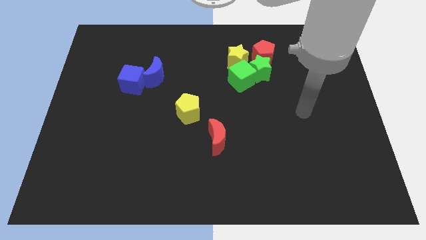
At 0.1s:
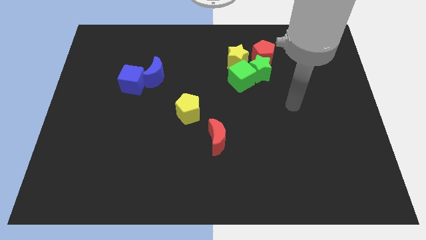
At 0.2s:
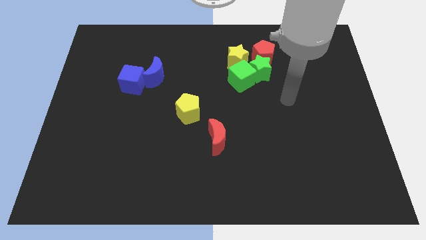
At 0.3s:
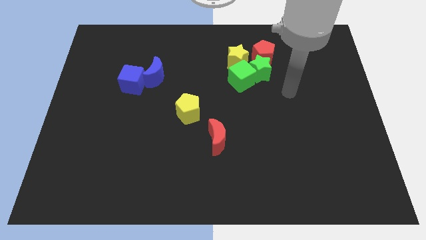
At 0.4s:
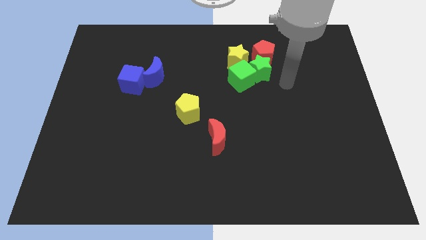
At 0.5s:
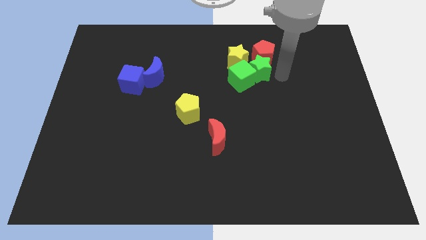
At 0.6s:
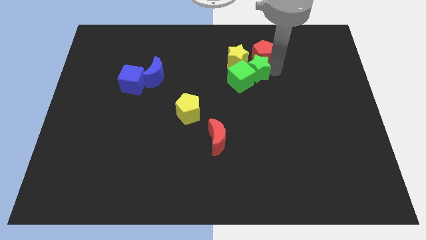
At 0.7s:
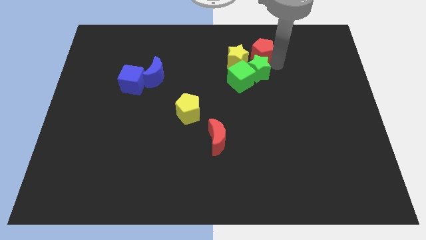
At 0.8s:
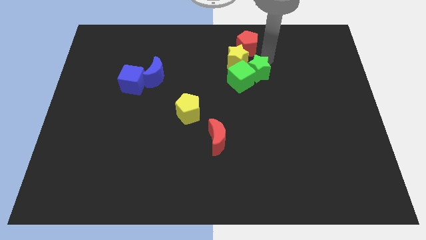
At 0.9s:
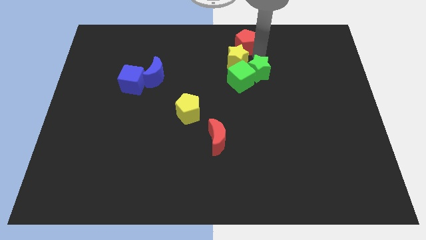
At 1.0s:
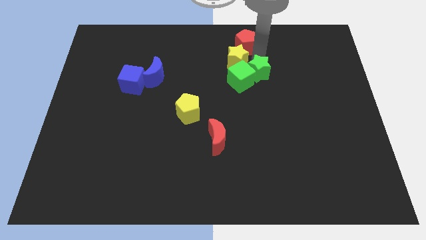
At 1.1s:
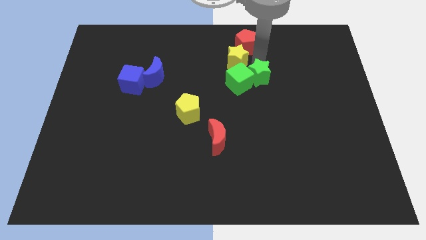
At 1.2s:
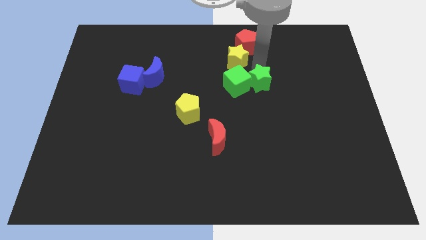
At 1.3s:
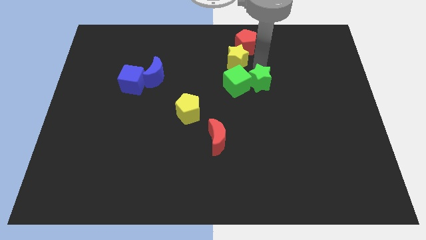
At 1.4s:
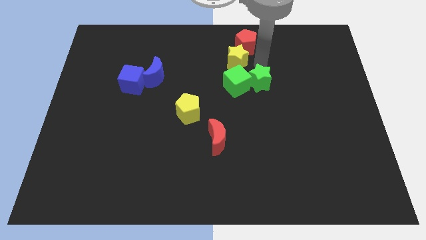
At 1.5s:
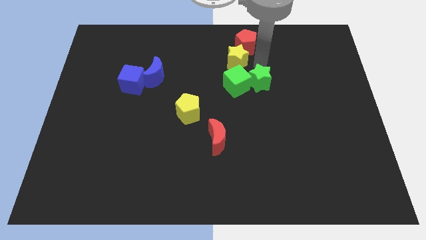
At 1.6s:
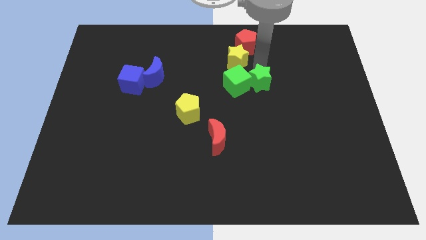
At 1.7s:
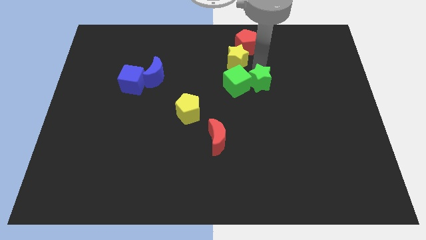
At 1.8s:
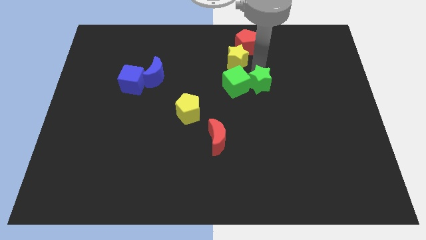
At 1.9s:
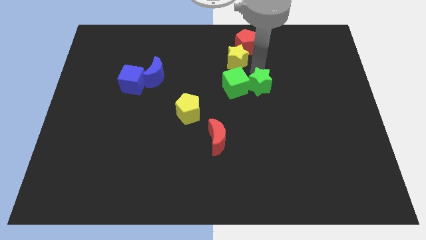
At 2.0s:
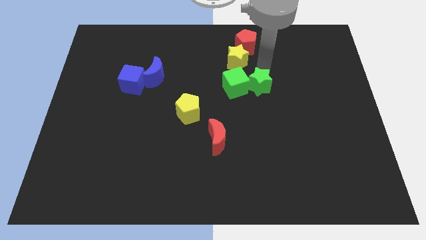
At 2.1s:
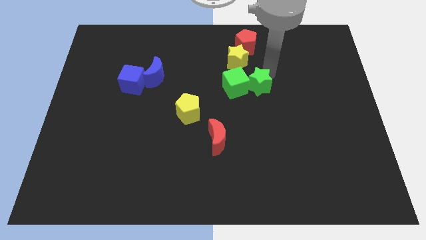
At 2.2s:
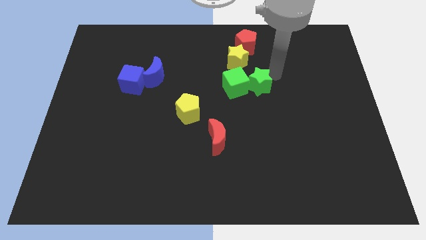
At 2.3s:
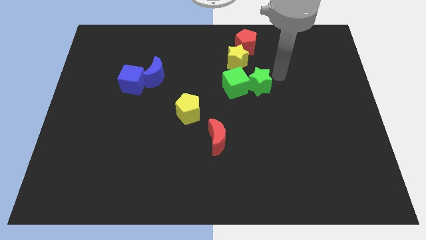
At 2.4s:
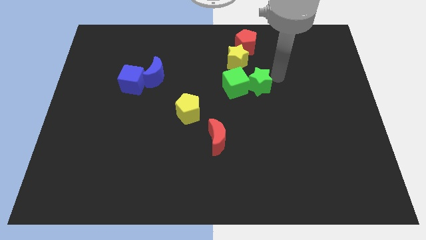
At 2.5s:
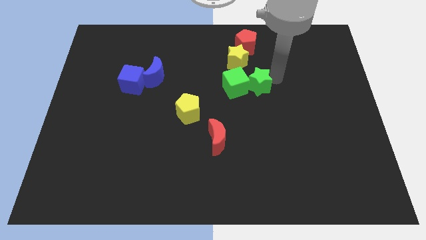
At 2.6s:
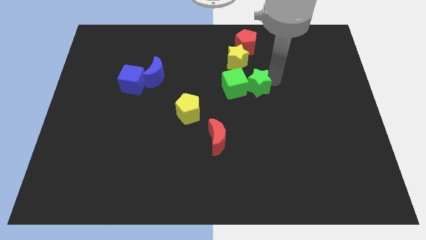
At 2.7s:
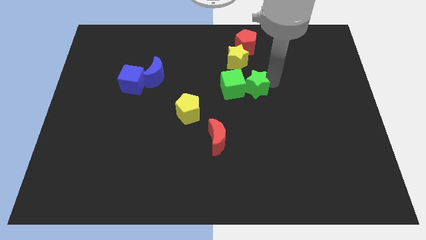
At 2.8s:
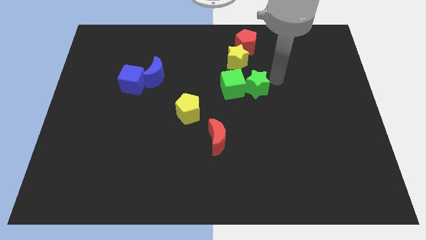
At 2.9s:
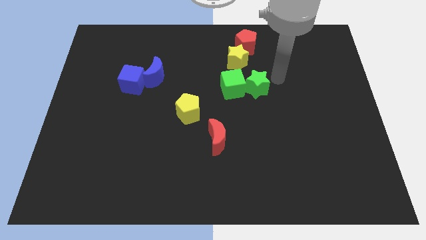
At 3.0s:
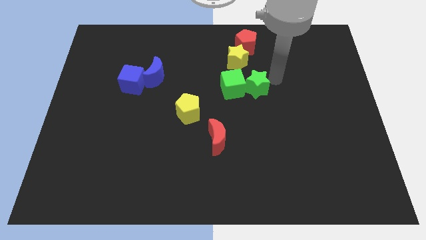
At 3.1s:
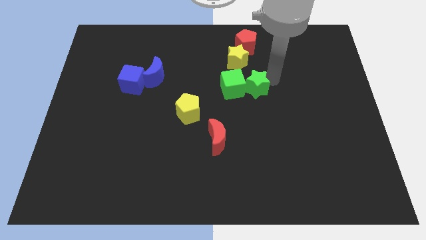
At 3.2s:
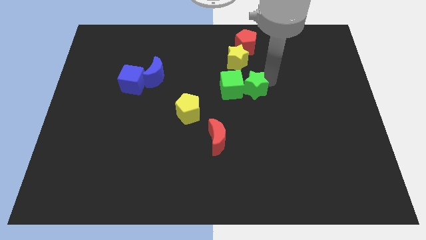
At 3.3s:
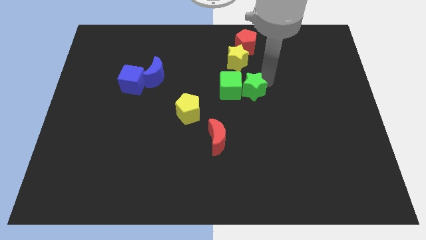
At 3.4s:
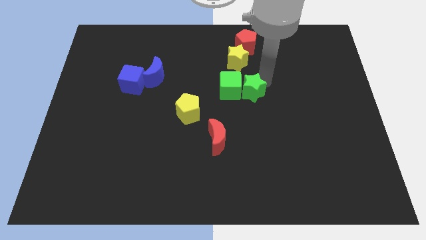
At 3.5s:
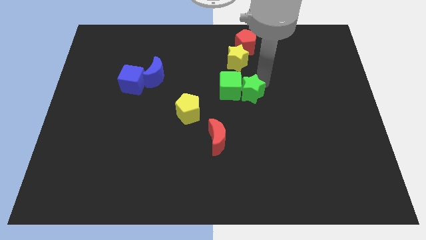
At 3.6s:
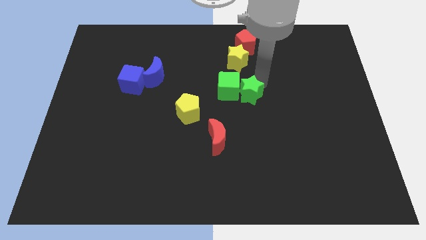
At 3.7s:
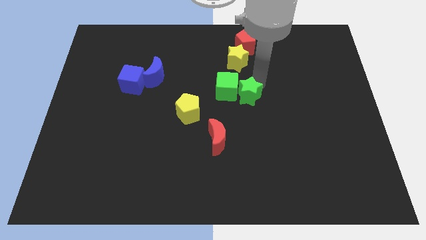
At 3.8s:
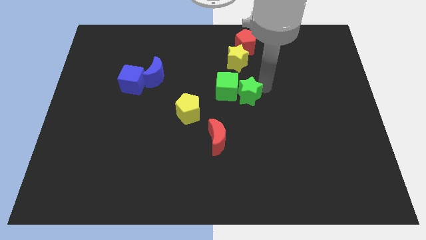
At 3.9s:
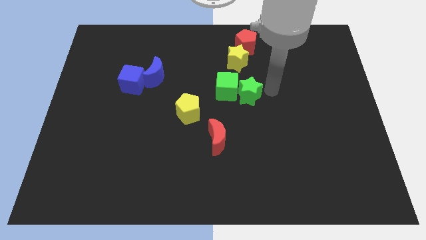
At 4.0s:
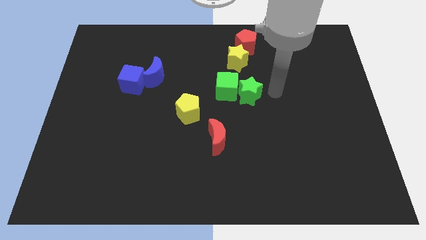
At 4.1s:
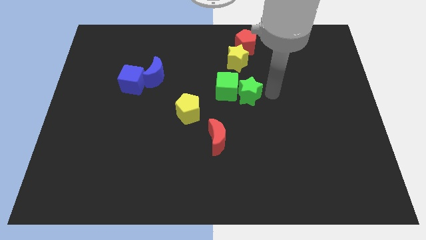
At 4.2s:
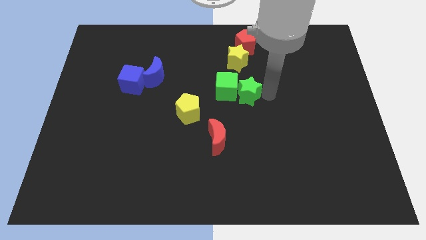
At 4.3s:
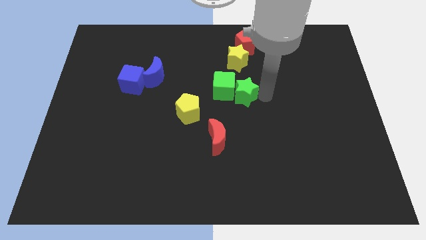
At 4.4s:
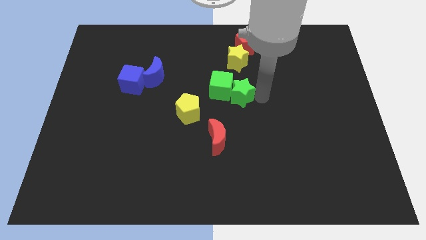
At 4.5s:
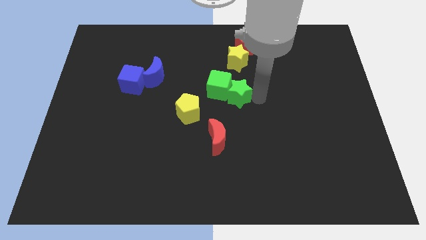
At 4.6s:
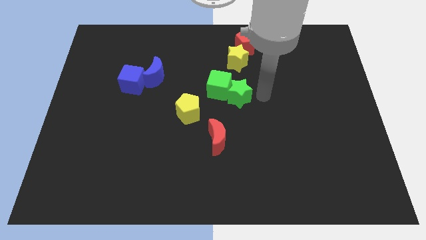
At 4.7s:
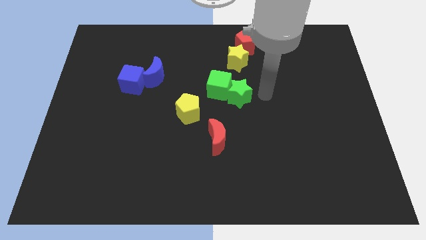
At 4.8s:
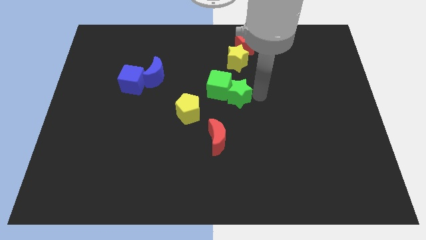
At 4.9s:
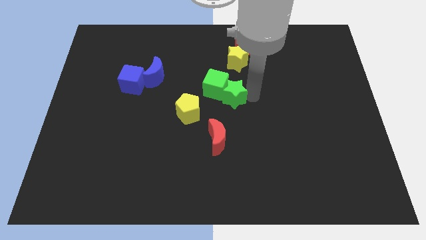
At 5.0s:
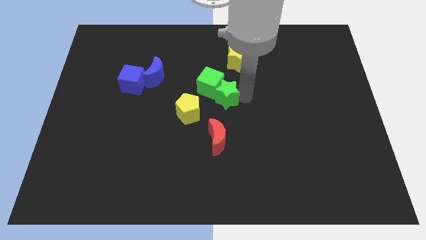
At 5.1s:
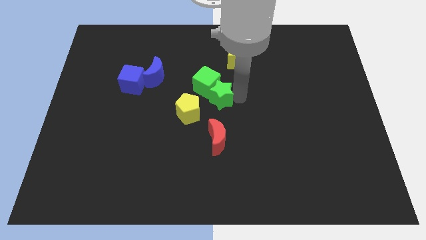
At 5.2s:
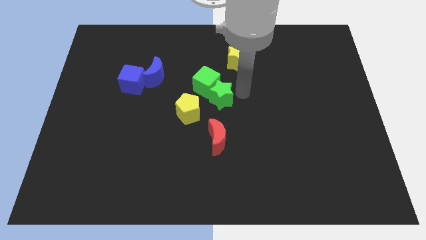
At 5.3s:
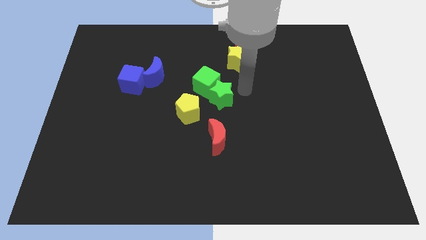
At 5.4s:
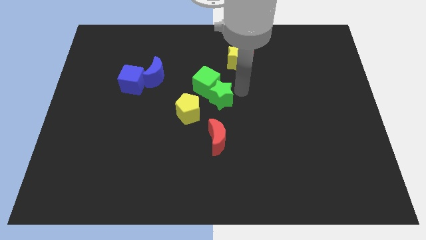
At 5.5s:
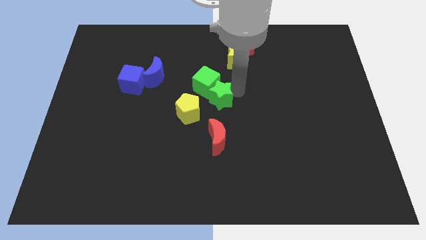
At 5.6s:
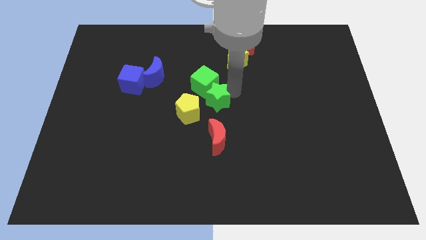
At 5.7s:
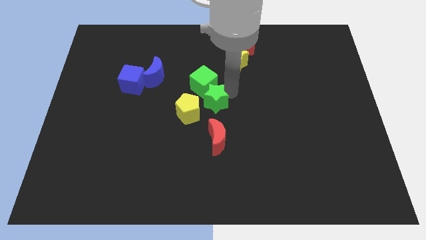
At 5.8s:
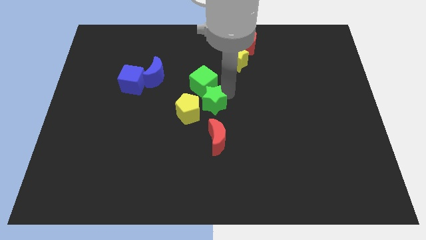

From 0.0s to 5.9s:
put the green star next to the yellow pentagon

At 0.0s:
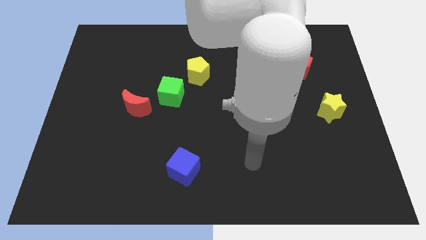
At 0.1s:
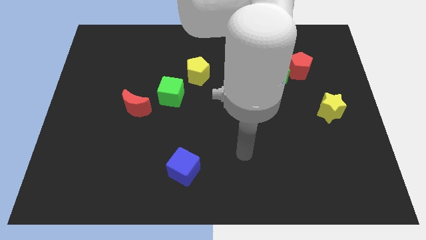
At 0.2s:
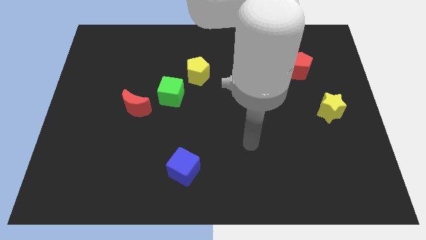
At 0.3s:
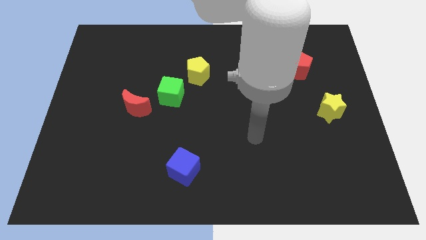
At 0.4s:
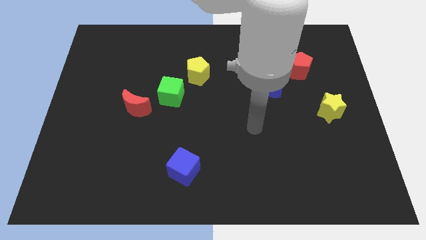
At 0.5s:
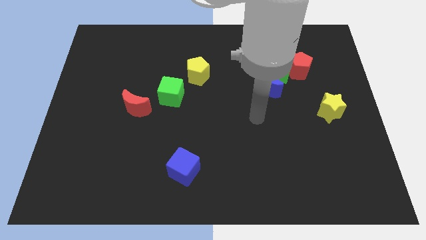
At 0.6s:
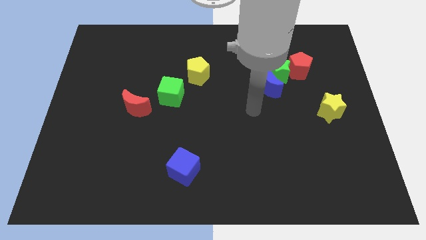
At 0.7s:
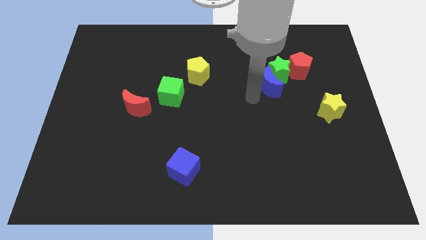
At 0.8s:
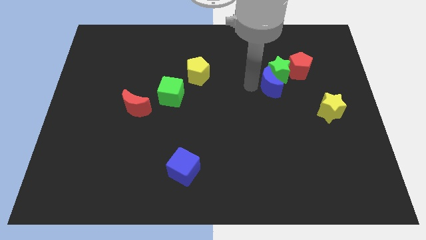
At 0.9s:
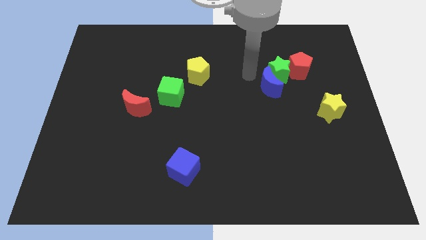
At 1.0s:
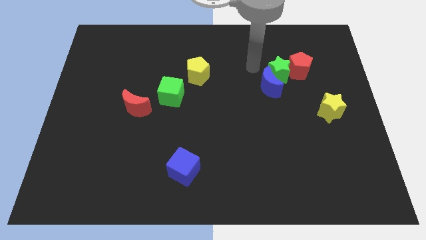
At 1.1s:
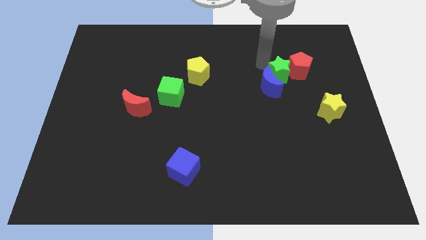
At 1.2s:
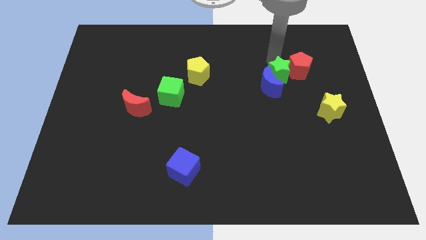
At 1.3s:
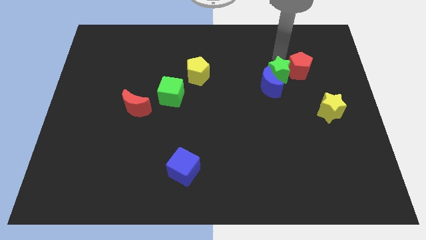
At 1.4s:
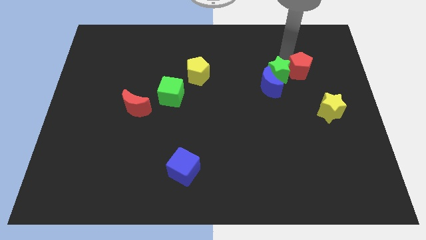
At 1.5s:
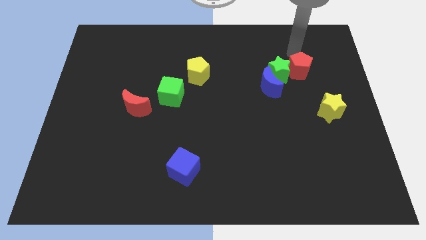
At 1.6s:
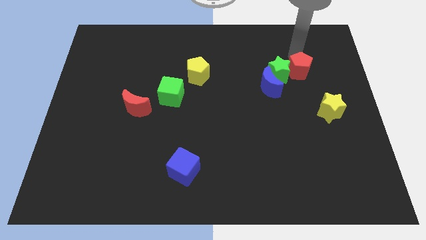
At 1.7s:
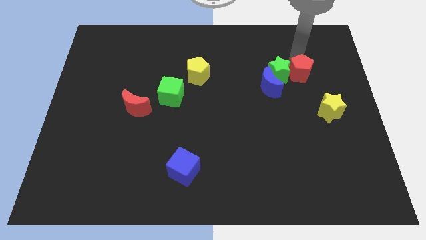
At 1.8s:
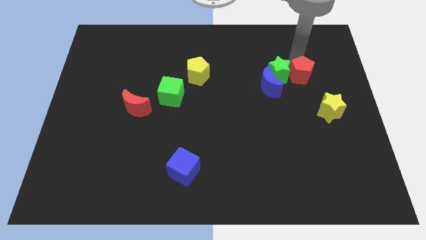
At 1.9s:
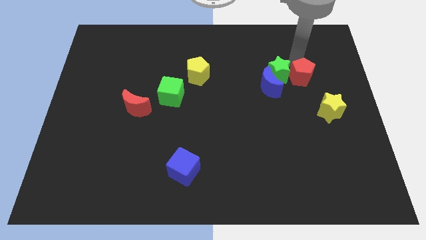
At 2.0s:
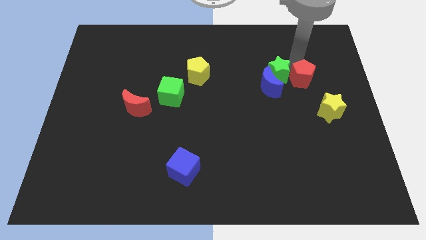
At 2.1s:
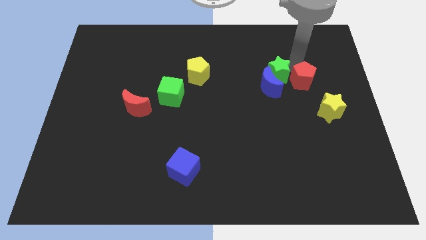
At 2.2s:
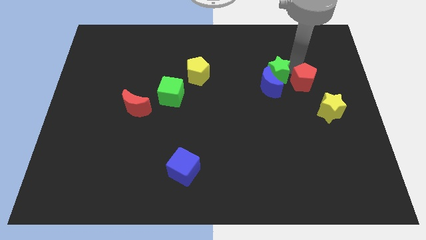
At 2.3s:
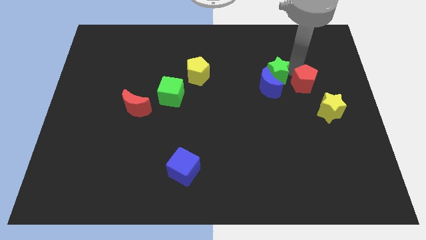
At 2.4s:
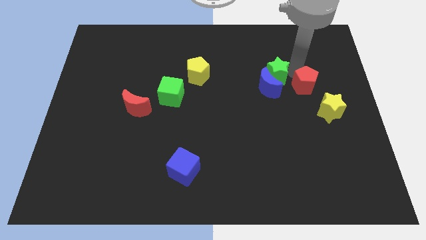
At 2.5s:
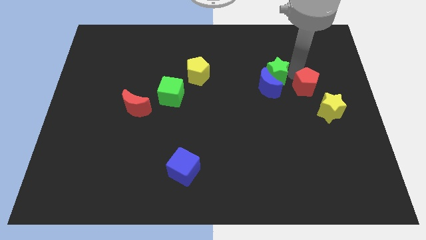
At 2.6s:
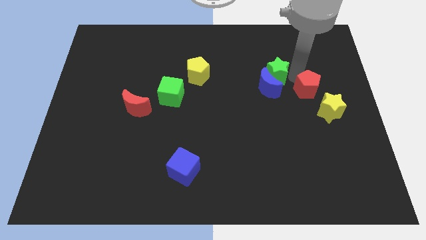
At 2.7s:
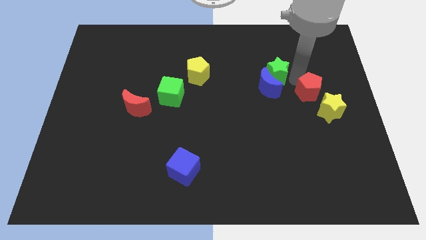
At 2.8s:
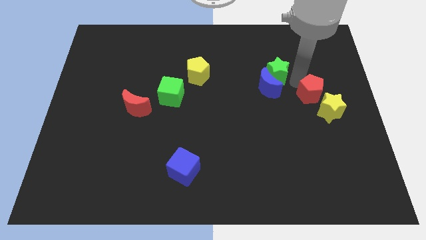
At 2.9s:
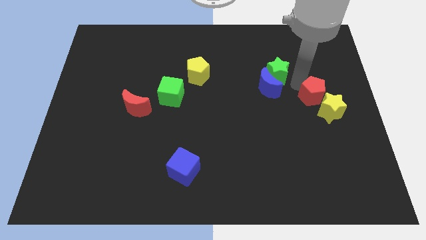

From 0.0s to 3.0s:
push the red pentagon next to the yellow star
